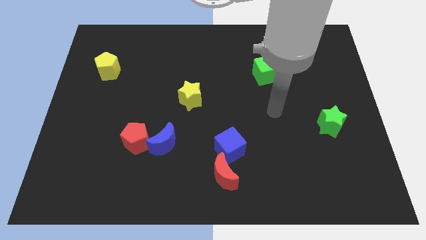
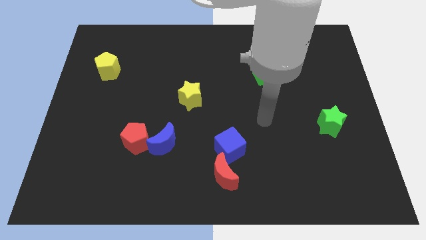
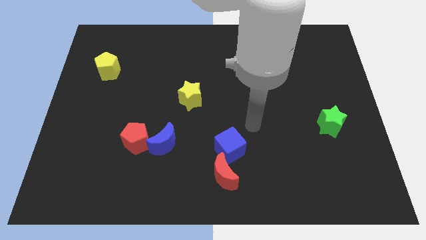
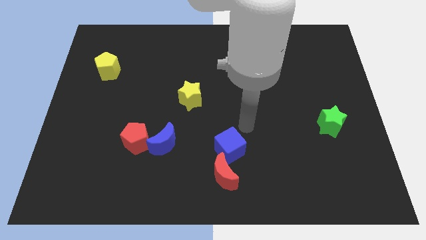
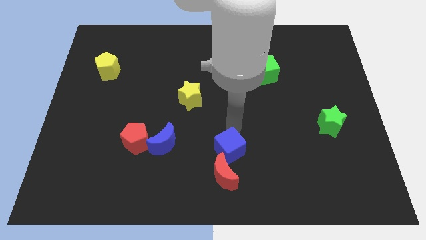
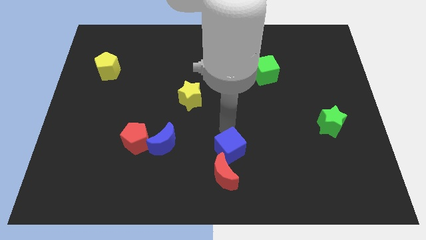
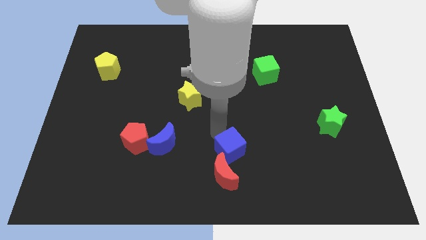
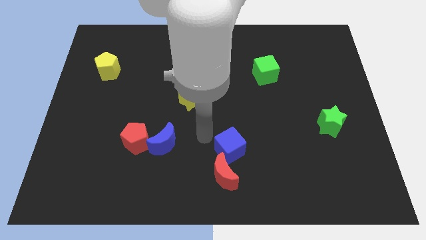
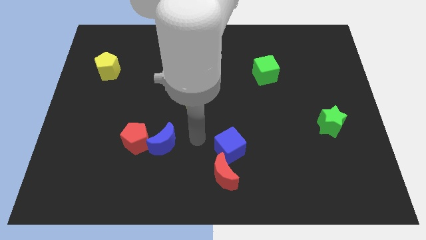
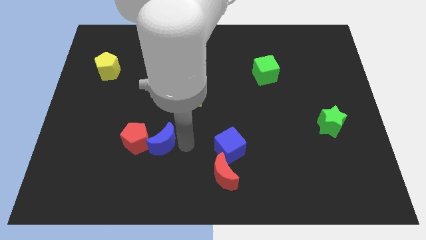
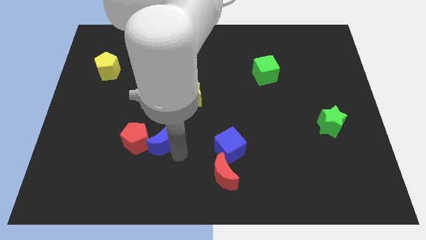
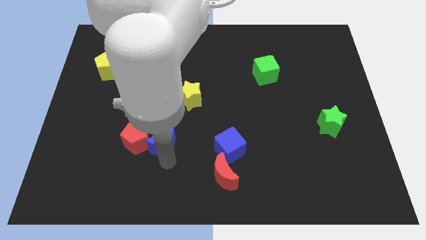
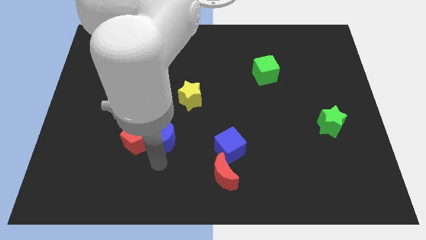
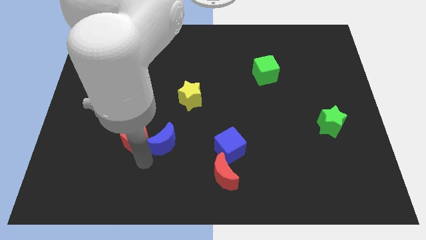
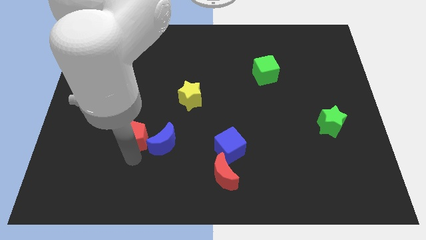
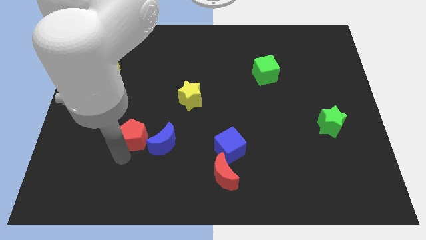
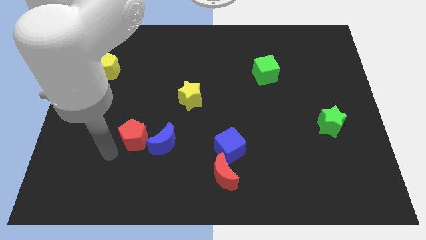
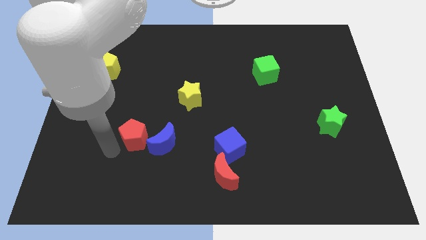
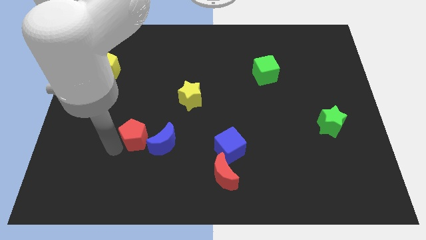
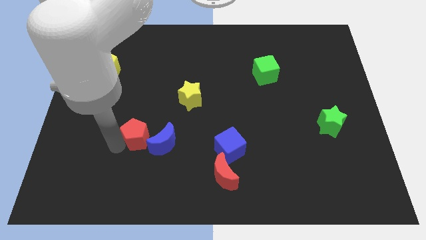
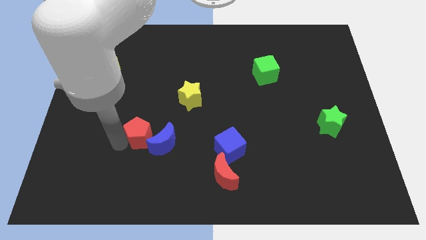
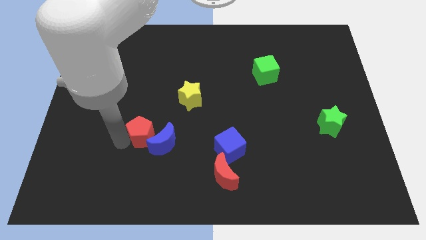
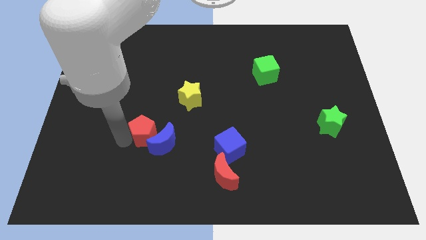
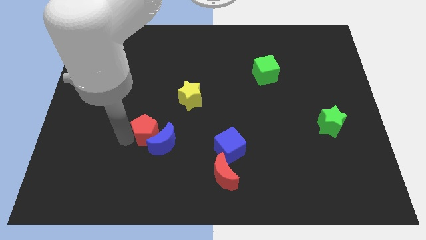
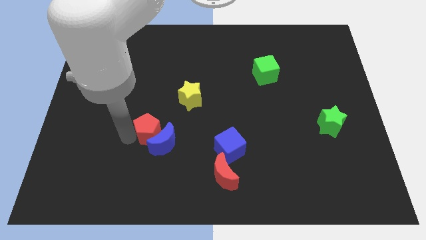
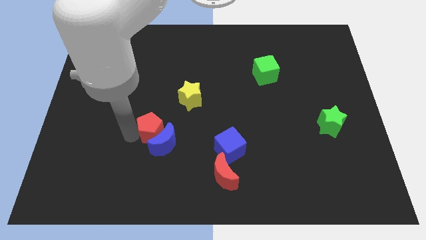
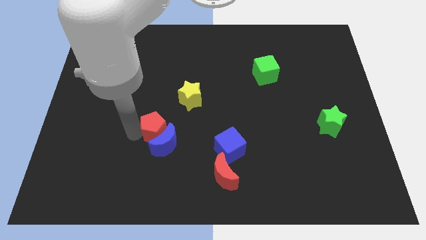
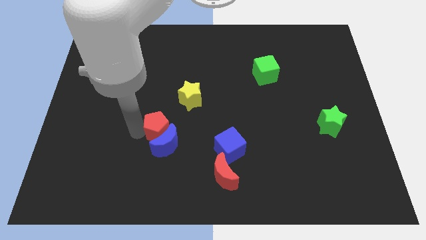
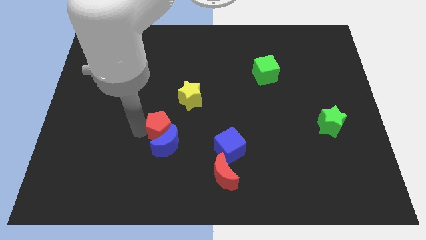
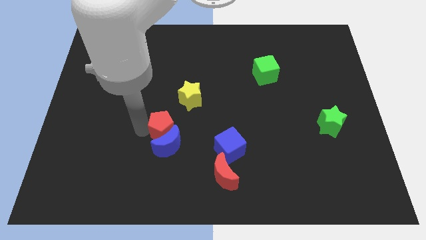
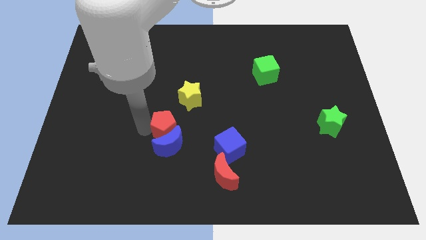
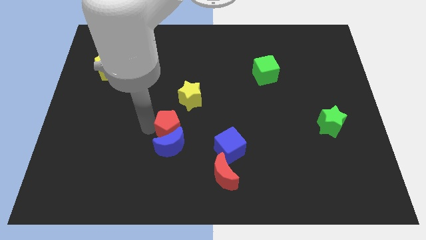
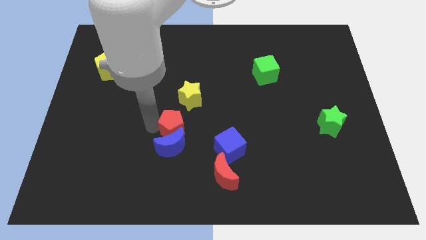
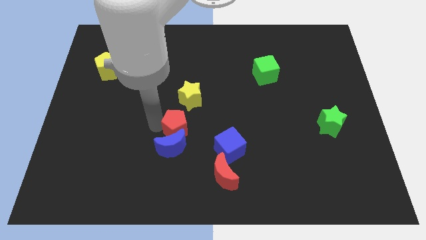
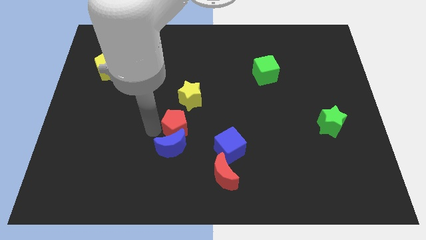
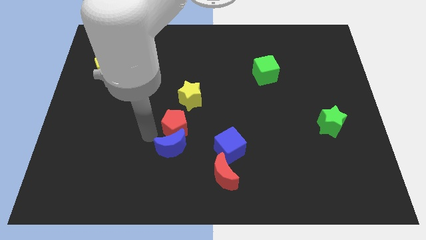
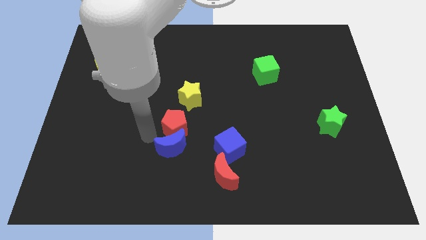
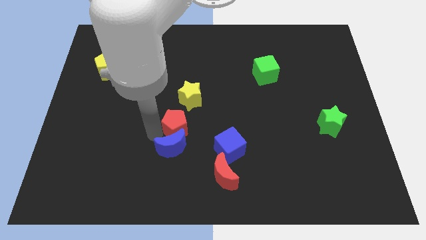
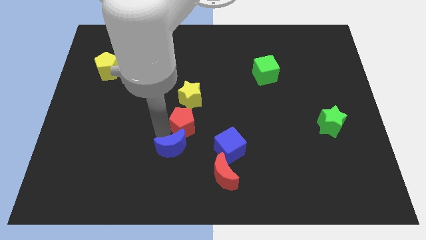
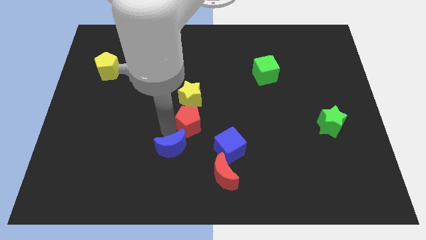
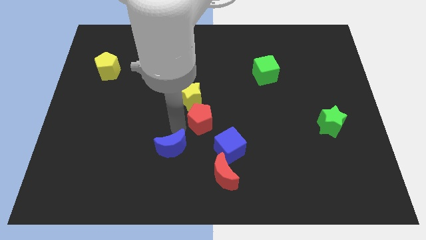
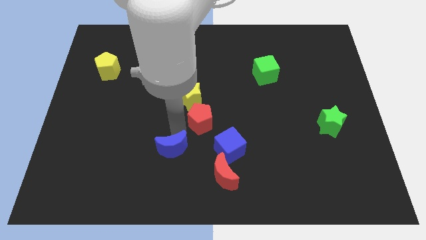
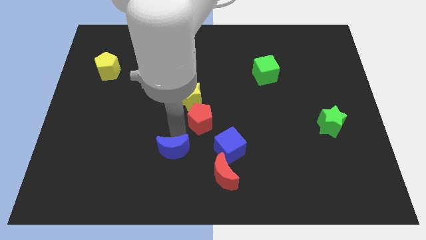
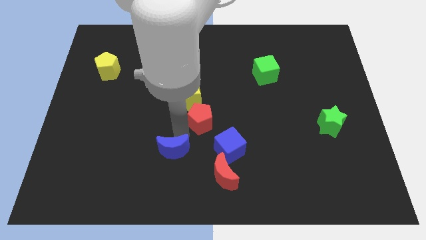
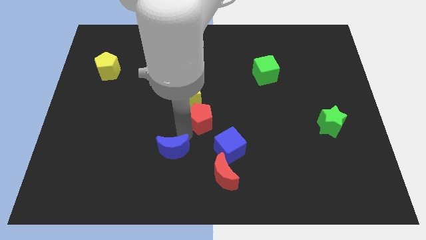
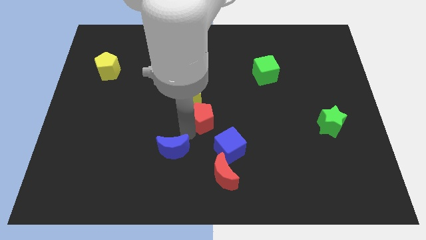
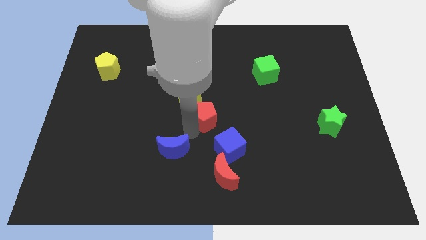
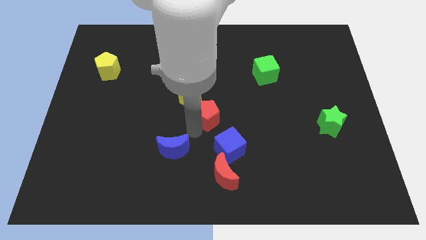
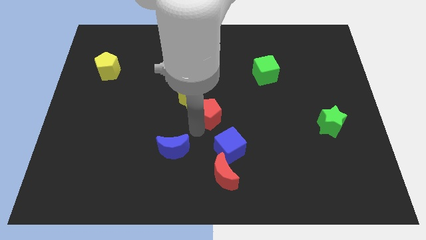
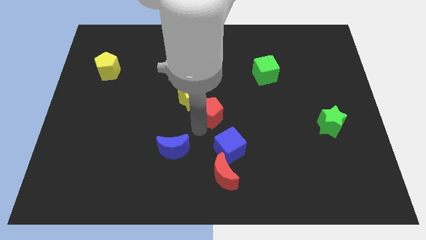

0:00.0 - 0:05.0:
put the red pentagon just right of the yellow star

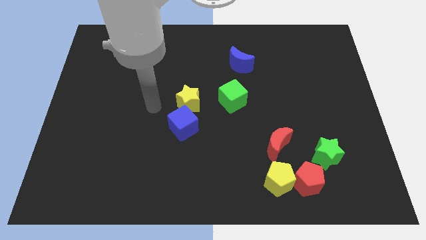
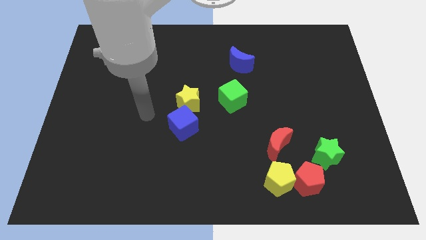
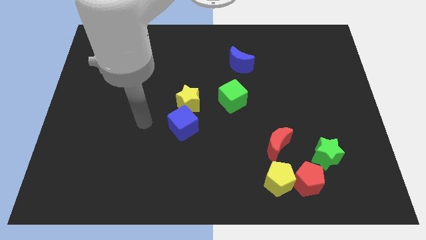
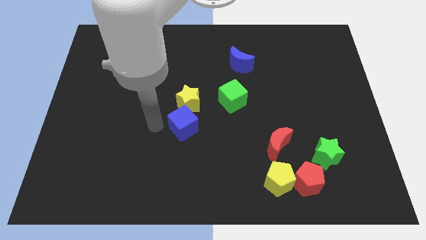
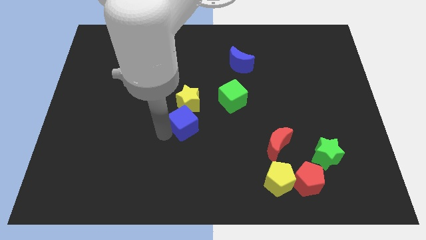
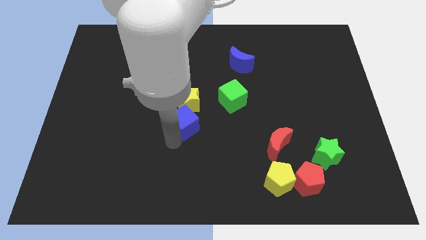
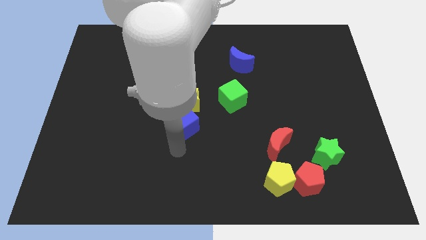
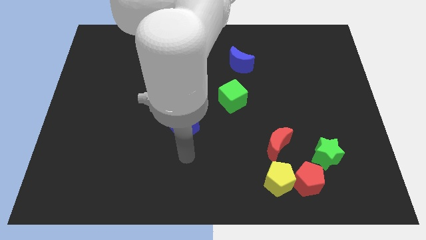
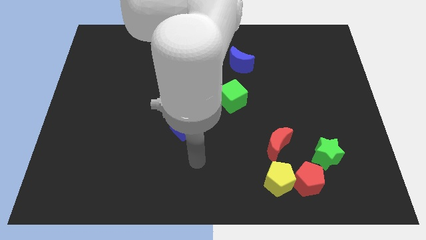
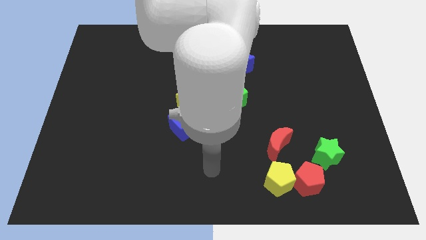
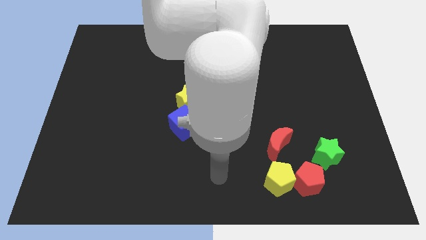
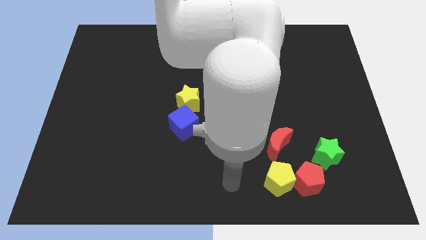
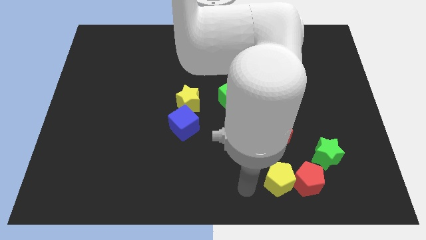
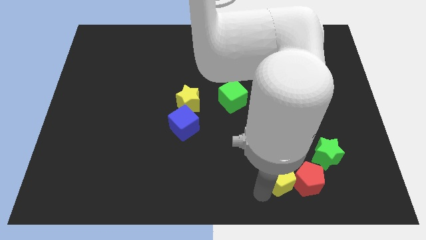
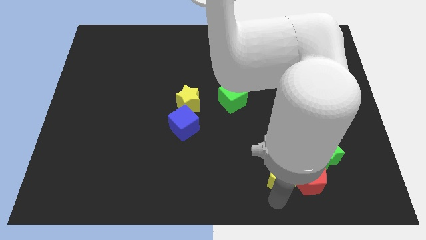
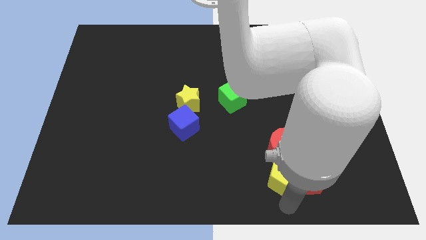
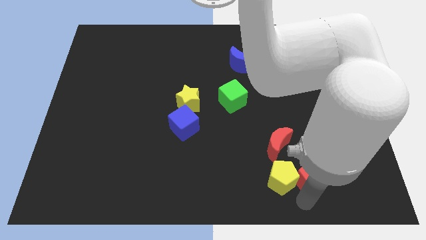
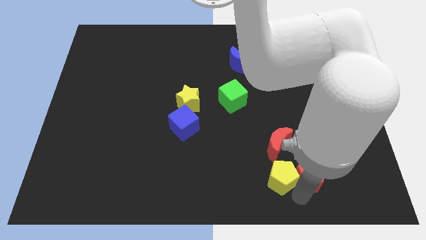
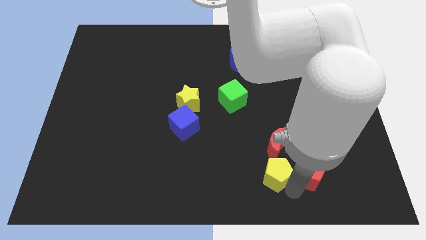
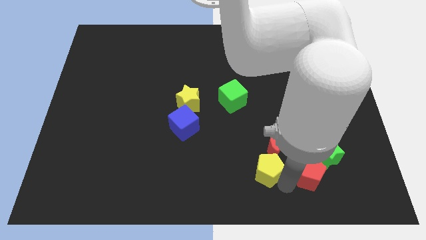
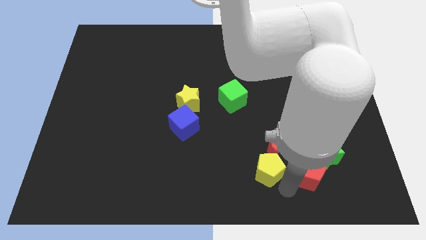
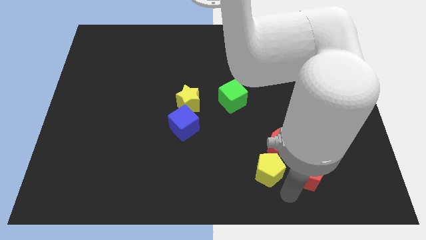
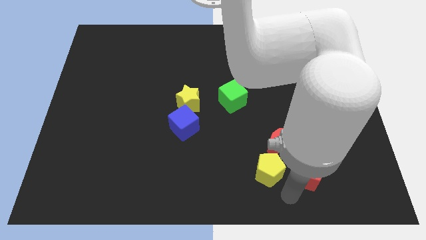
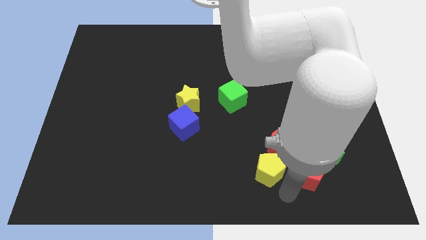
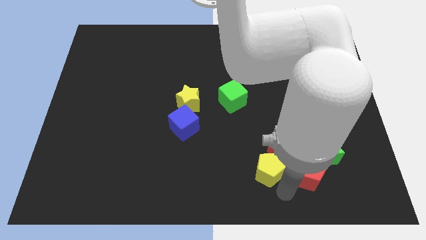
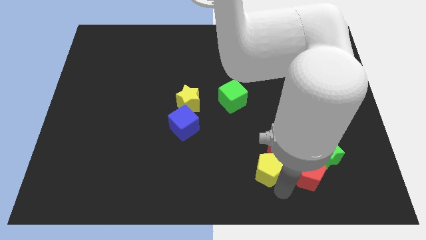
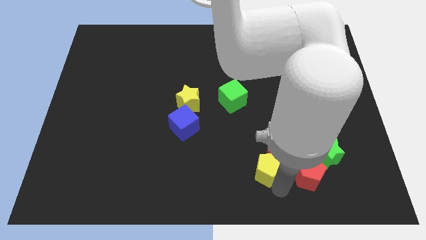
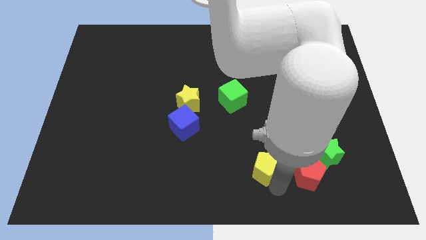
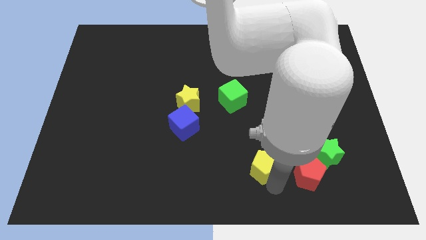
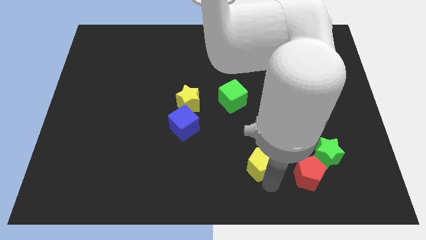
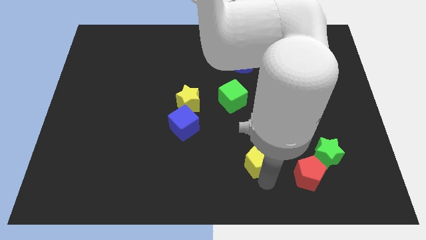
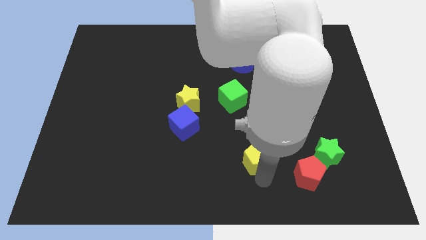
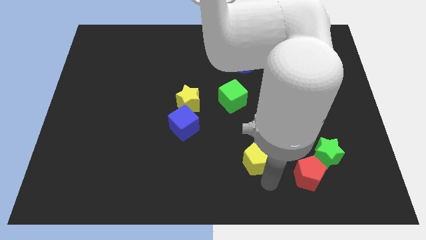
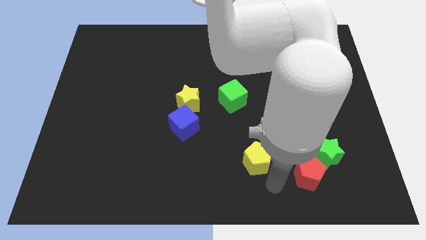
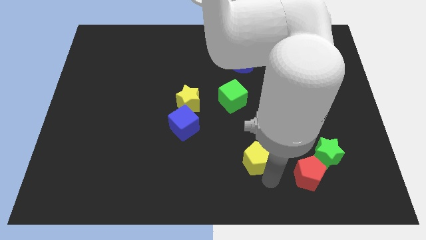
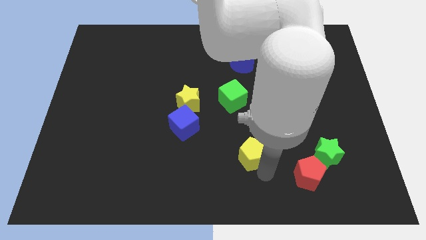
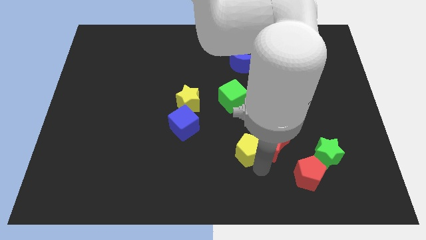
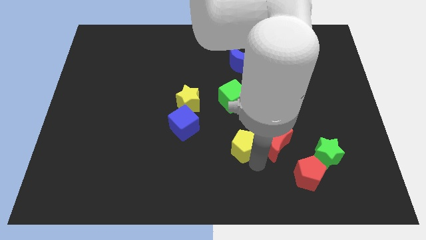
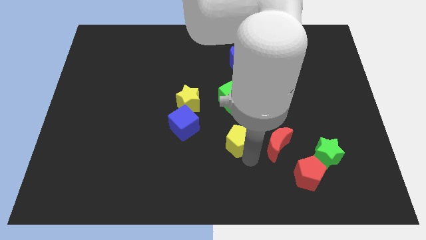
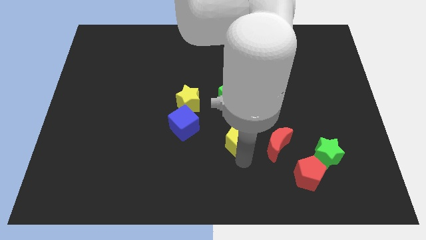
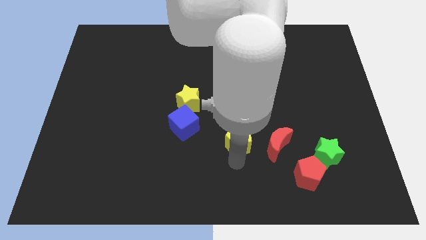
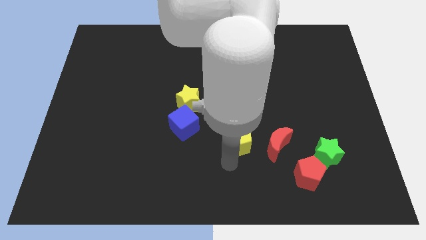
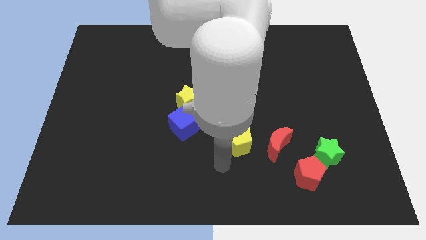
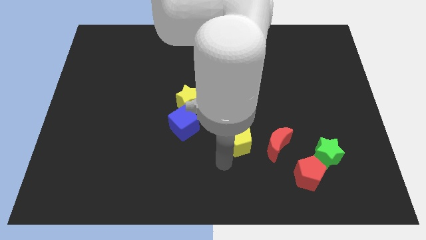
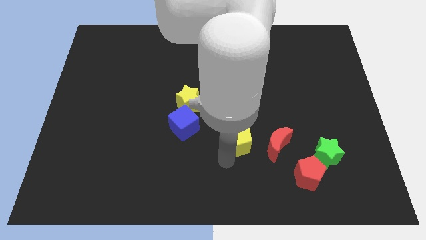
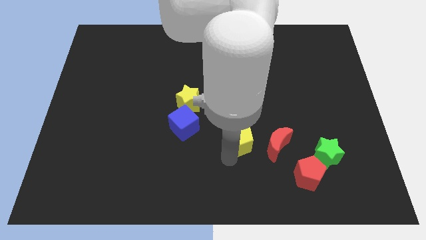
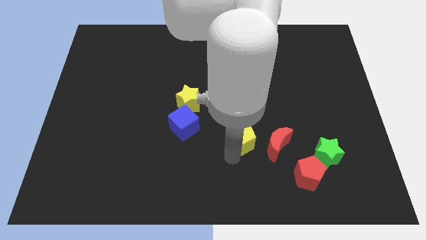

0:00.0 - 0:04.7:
put the yellow pentagon to the top left side of the red moon
